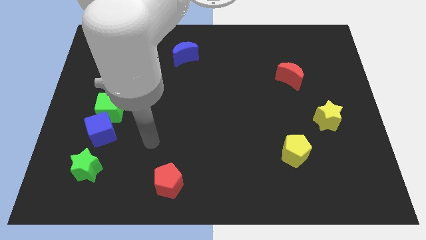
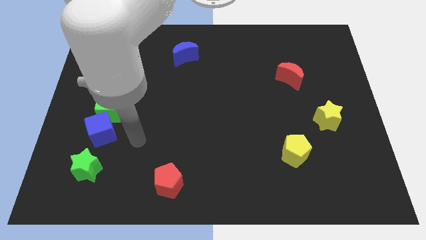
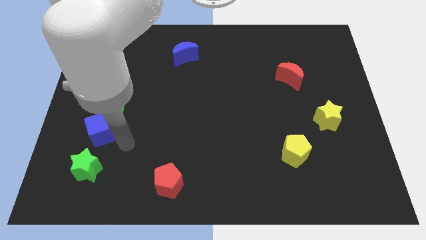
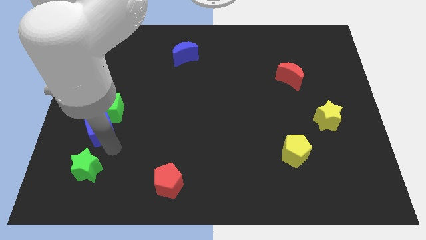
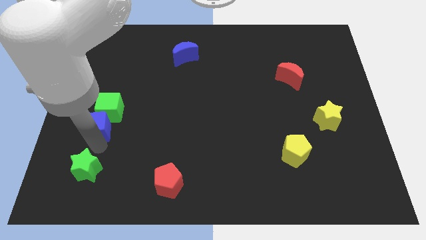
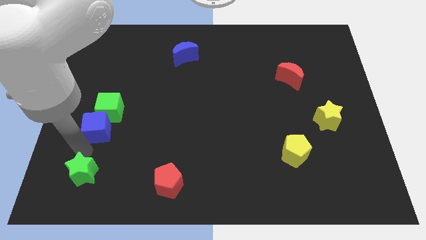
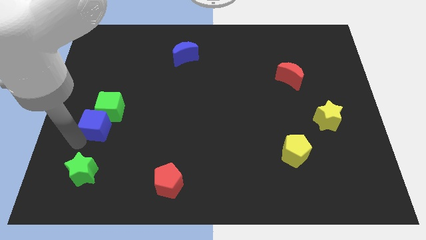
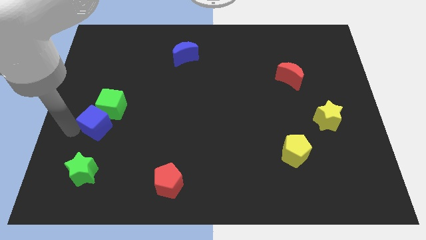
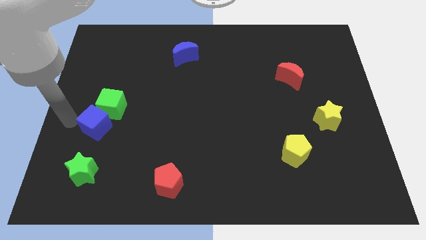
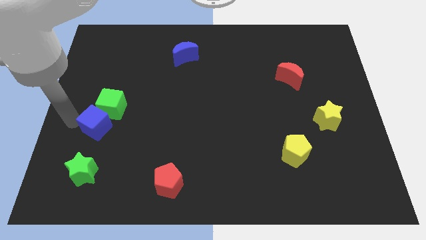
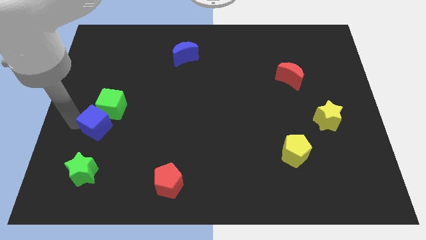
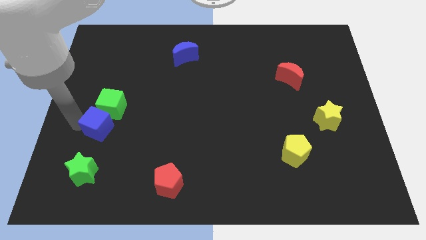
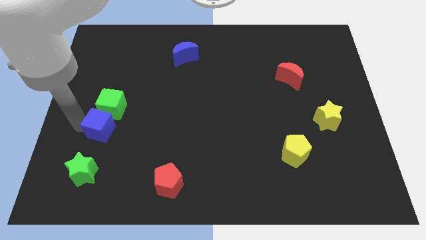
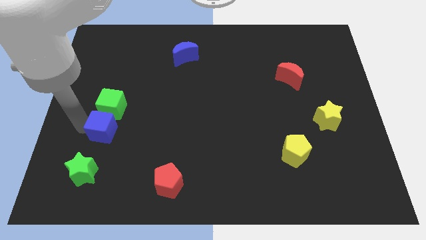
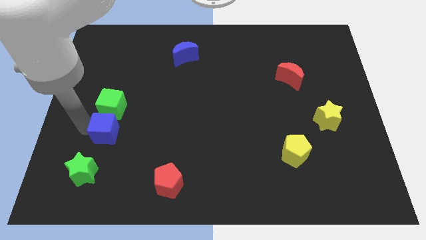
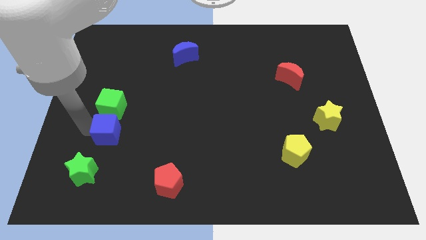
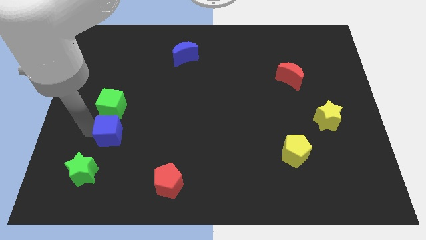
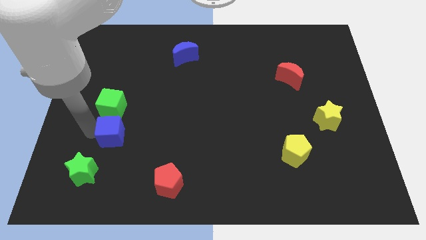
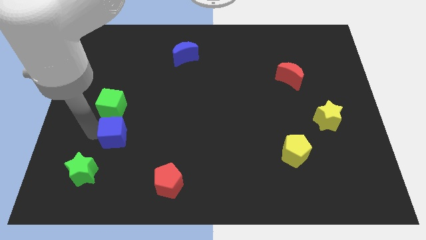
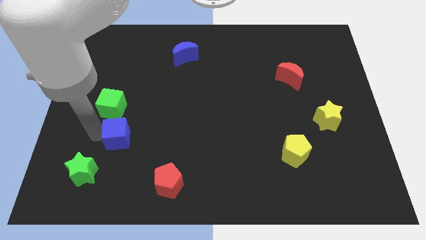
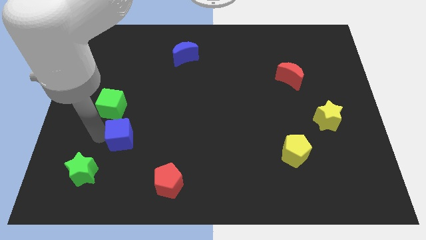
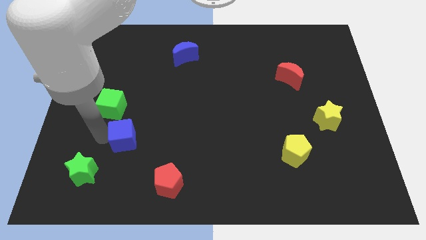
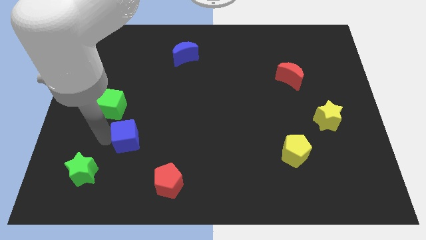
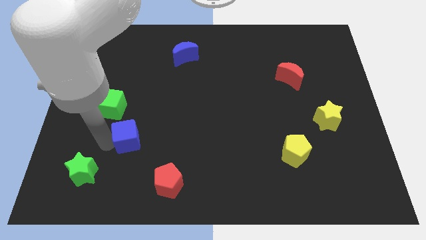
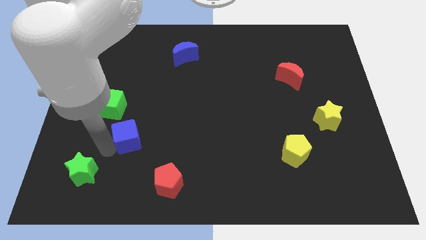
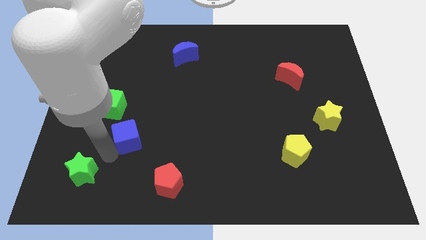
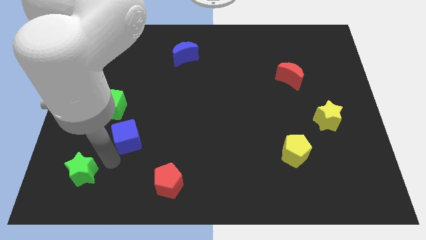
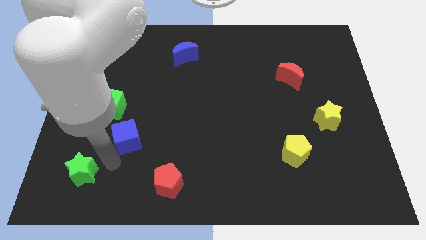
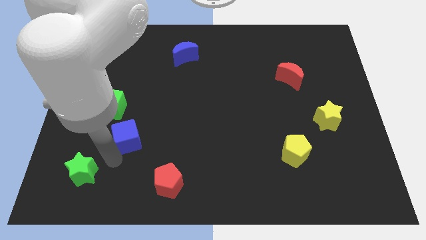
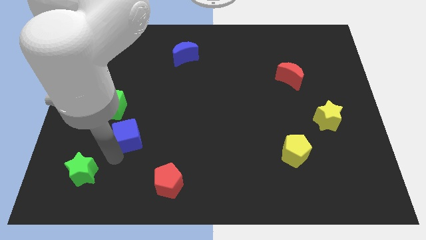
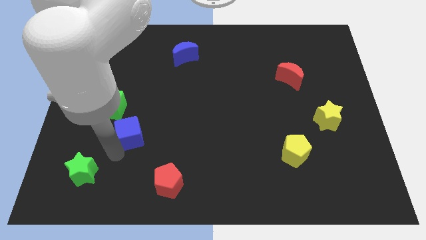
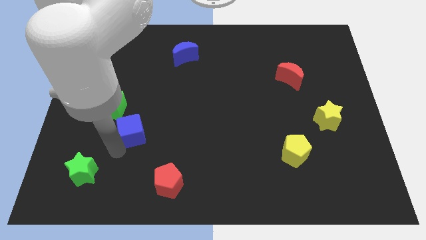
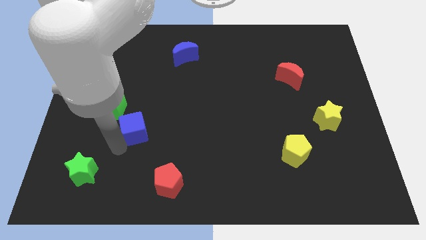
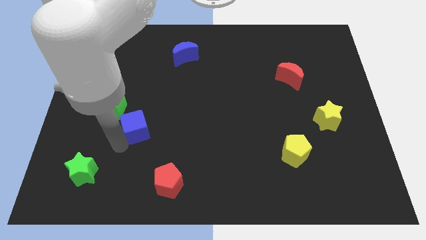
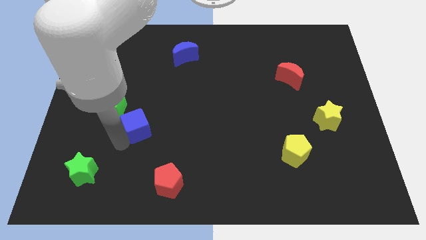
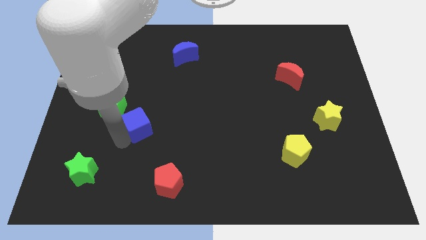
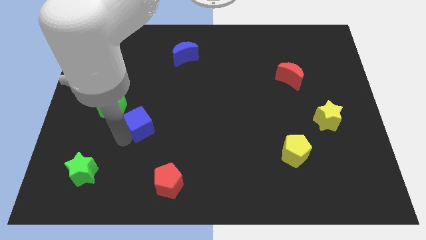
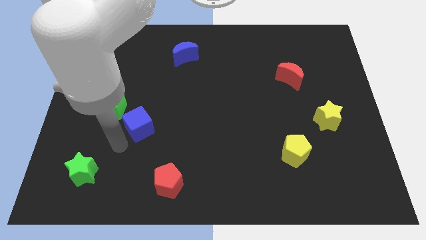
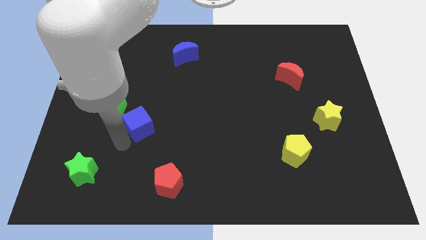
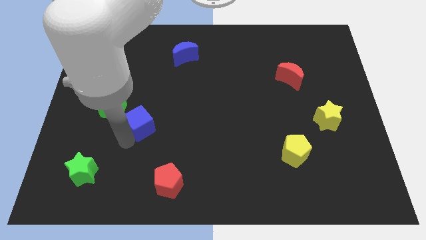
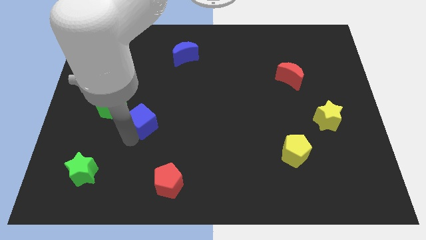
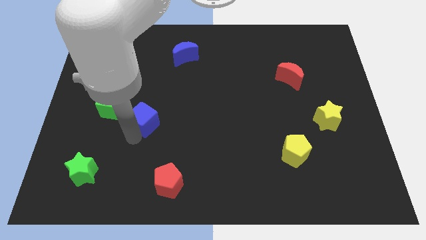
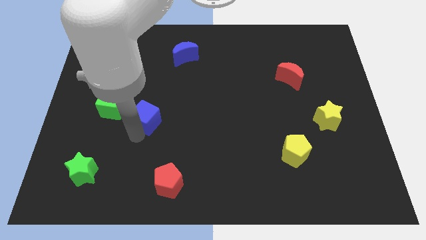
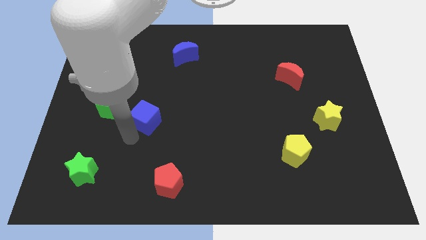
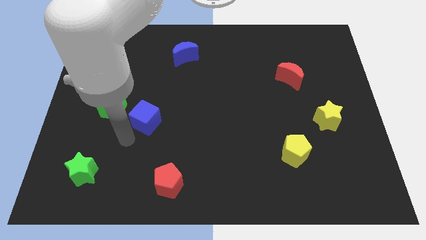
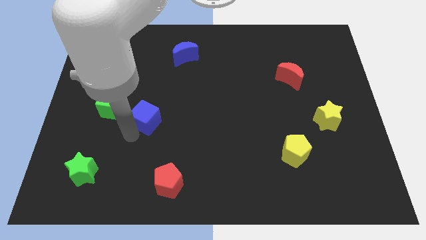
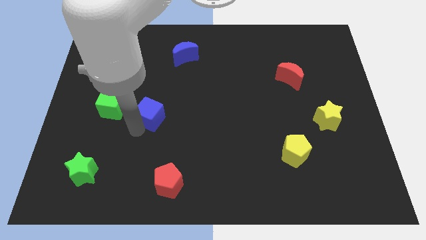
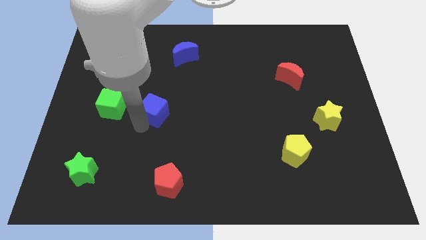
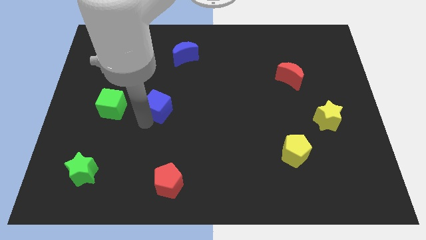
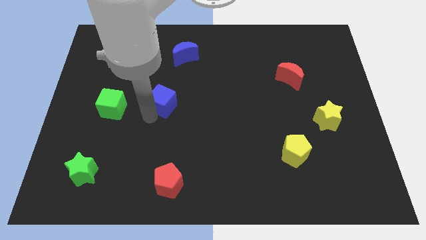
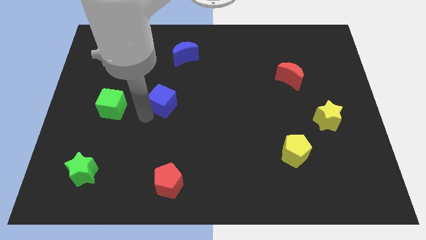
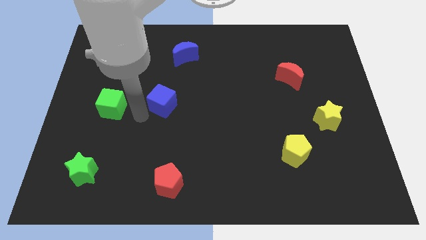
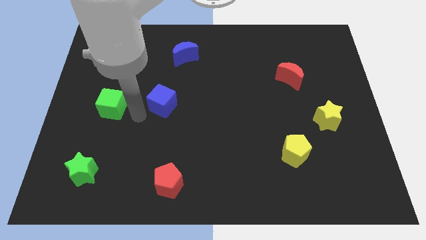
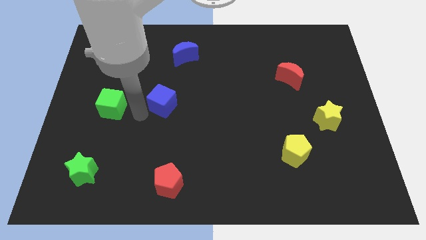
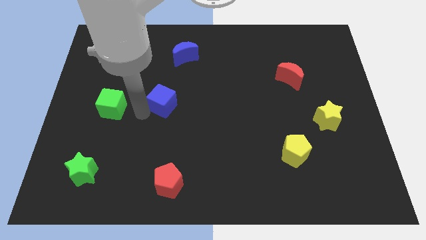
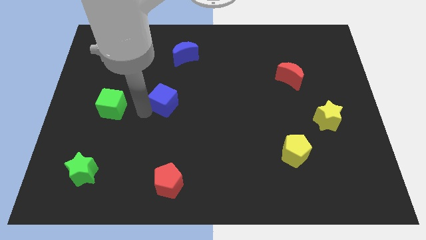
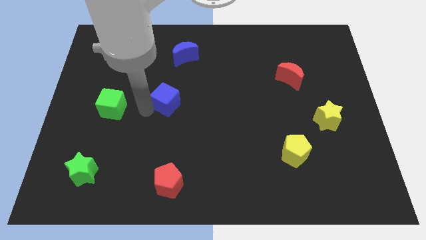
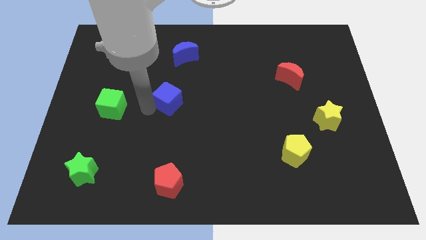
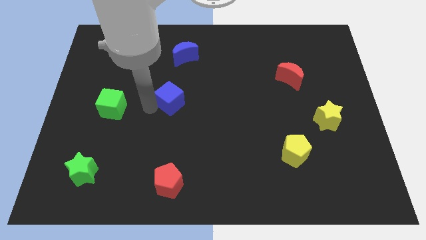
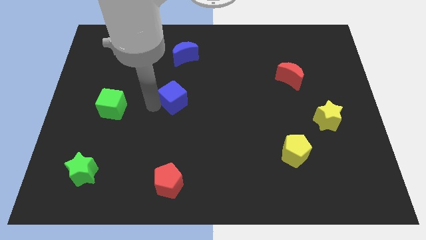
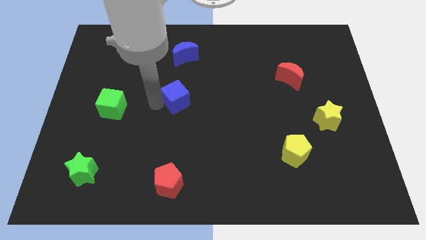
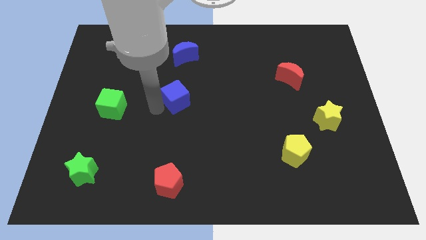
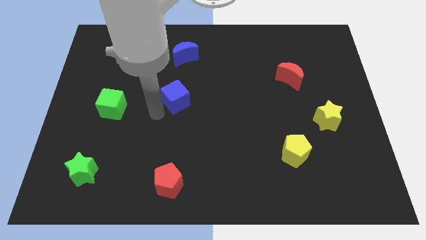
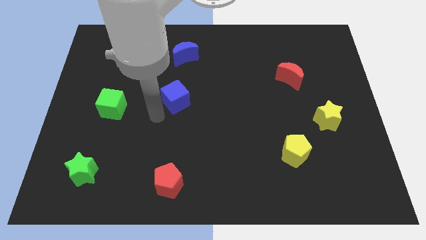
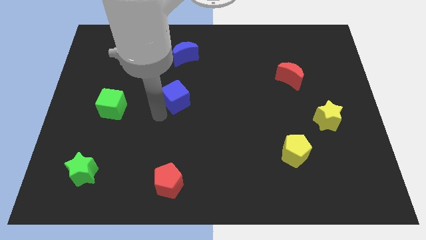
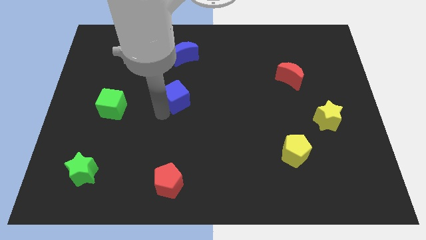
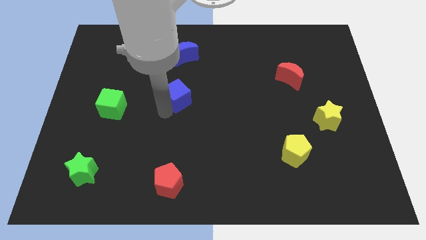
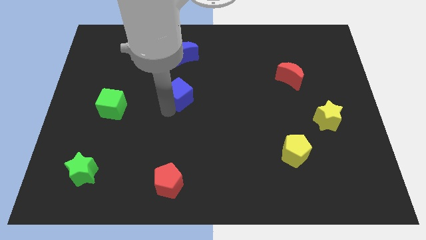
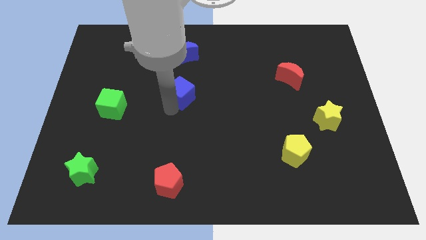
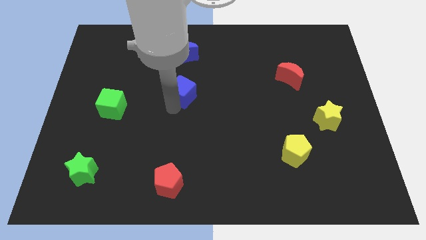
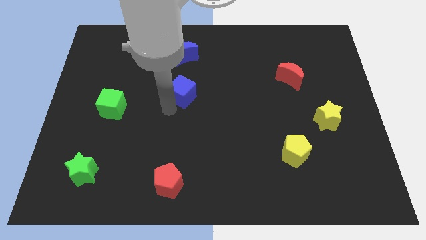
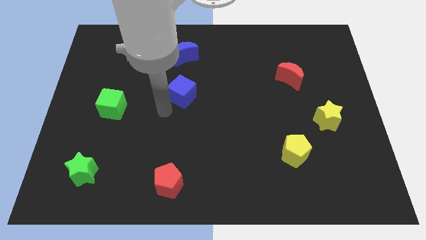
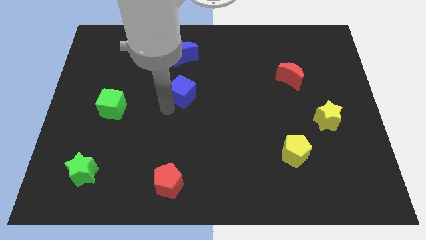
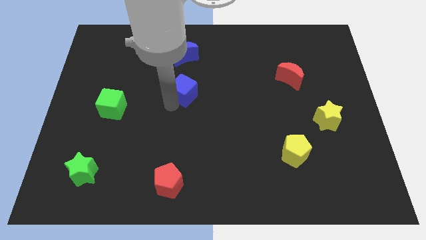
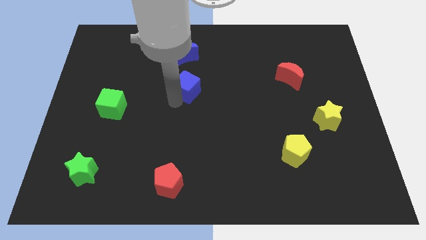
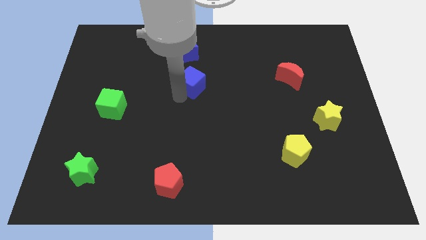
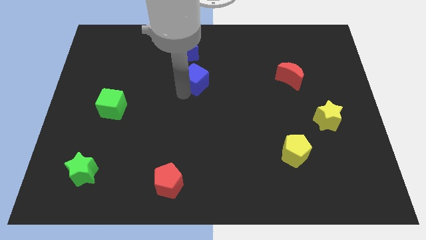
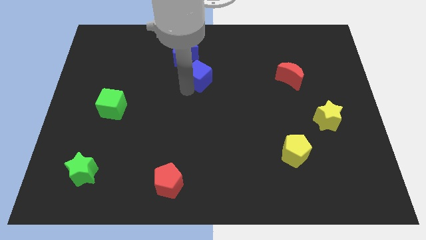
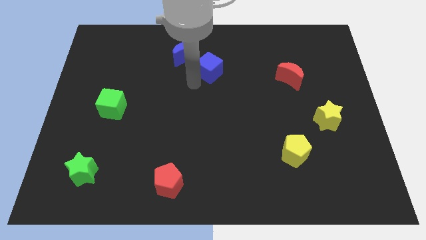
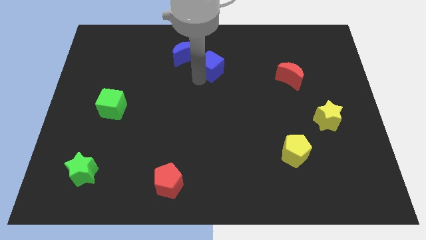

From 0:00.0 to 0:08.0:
slide the blue cube to the right side of the blue moon
